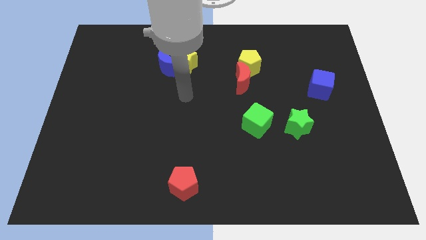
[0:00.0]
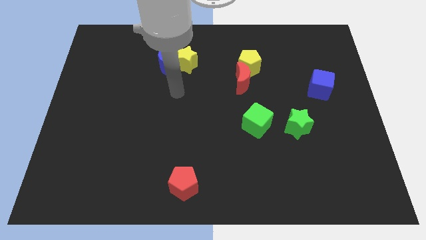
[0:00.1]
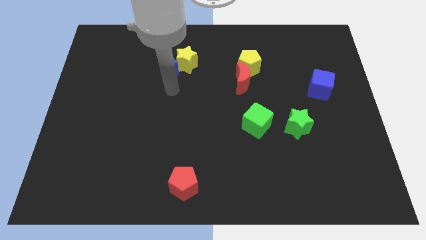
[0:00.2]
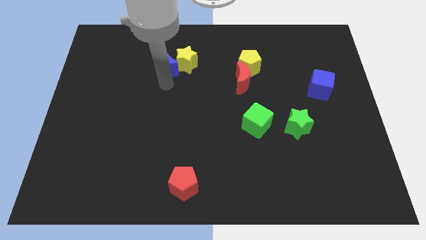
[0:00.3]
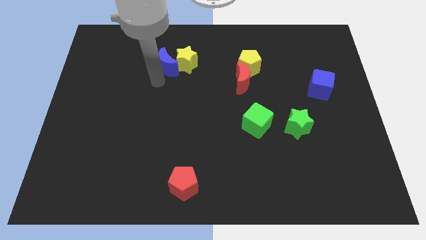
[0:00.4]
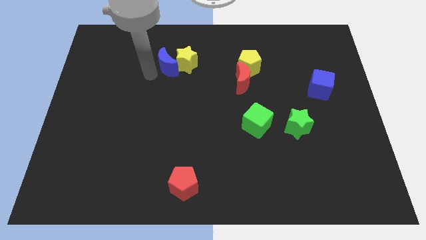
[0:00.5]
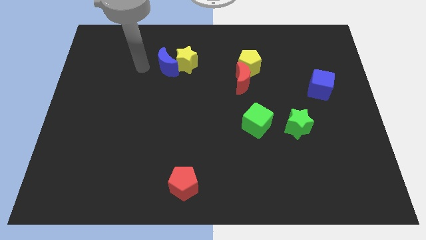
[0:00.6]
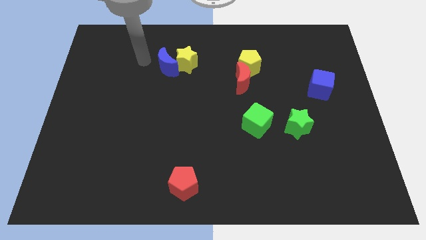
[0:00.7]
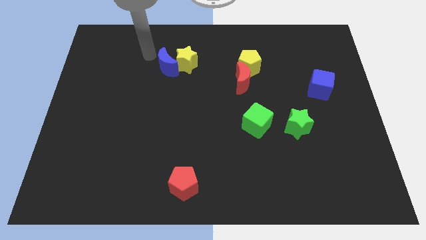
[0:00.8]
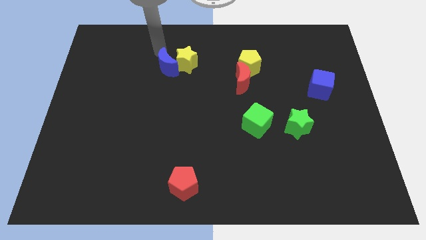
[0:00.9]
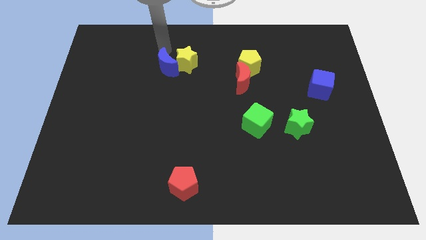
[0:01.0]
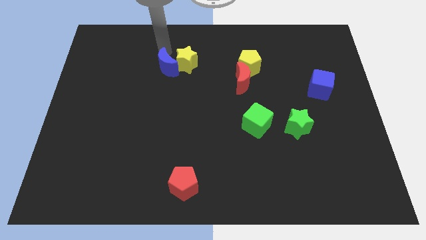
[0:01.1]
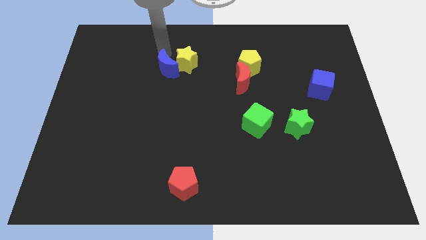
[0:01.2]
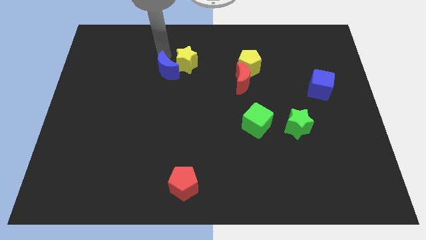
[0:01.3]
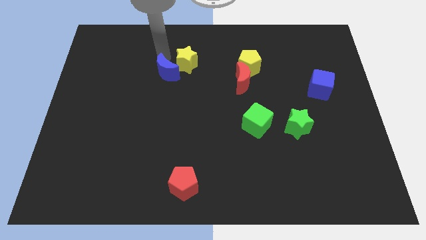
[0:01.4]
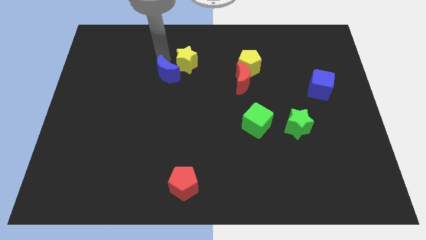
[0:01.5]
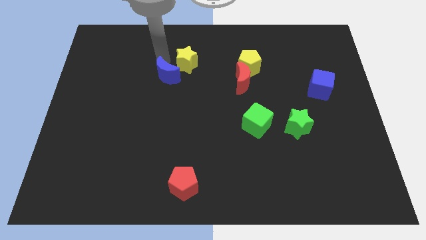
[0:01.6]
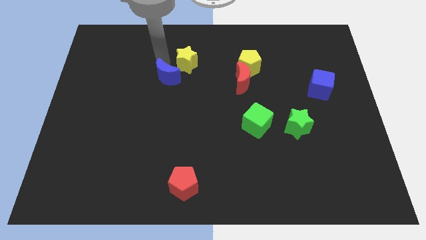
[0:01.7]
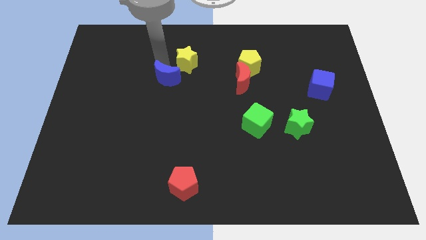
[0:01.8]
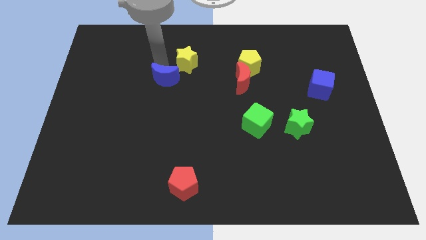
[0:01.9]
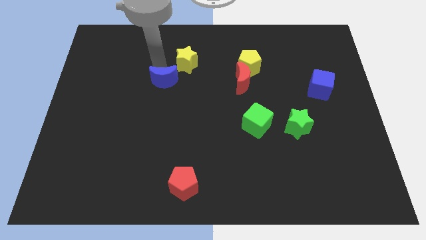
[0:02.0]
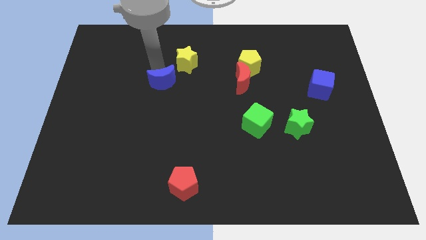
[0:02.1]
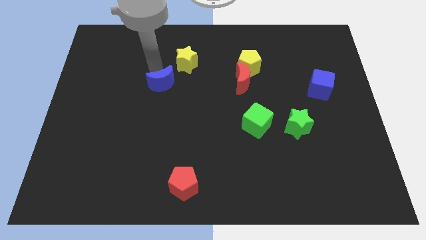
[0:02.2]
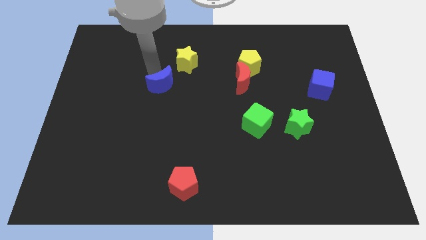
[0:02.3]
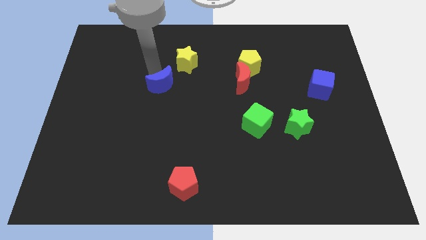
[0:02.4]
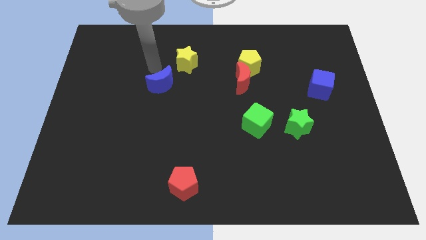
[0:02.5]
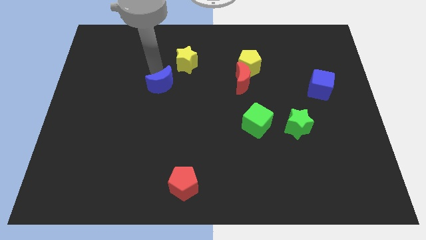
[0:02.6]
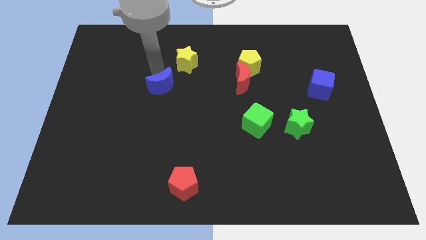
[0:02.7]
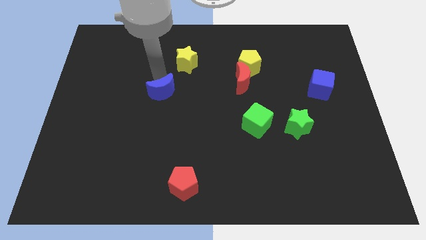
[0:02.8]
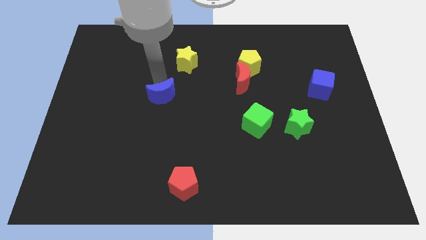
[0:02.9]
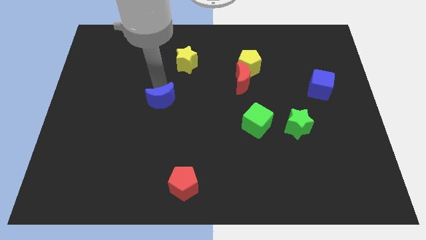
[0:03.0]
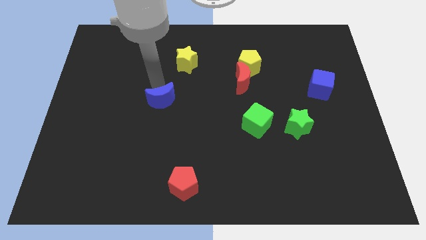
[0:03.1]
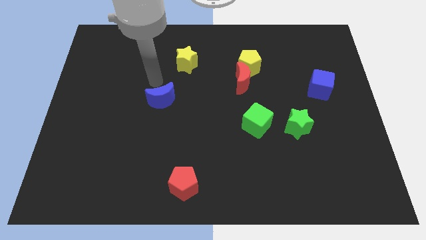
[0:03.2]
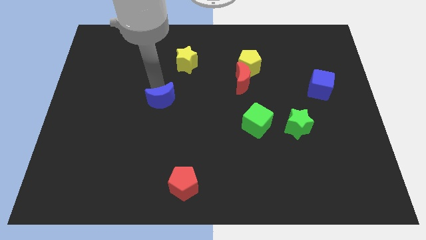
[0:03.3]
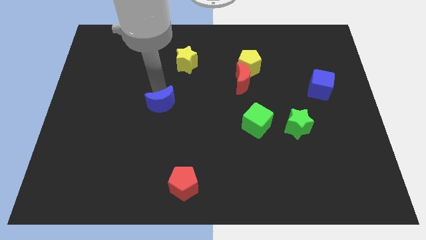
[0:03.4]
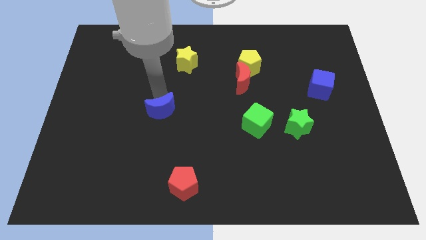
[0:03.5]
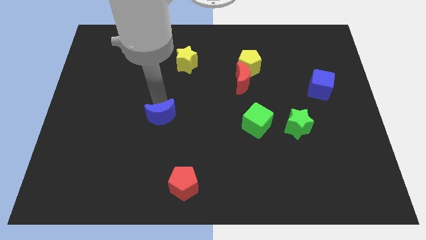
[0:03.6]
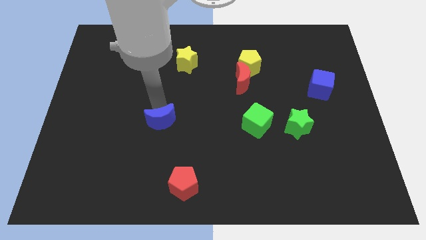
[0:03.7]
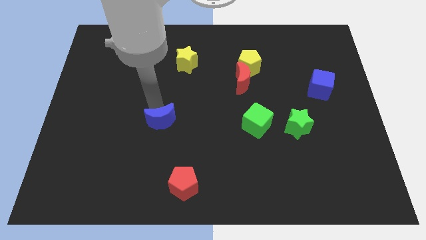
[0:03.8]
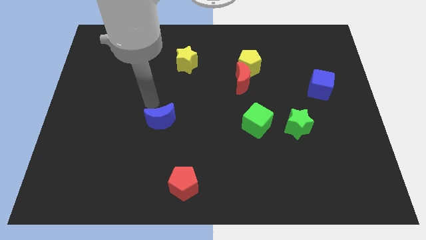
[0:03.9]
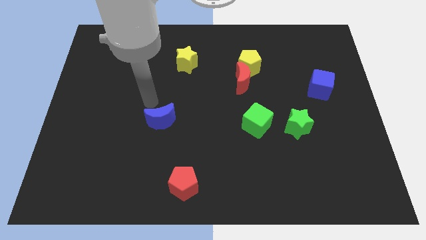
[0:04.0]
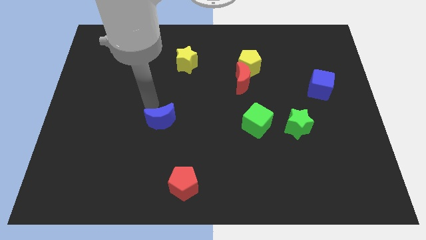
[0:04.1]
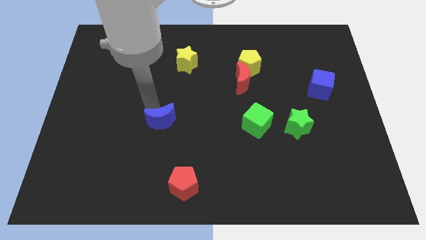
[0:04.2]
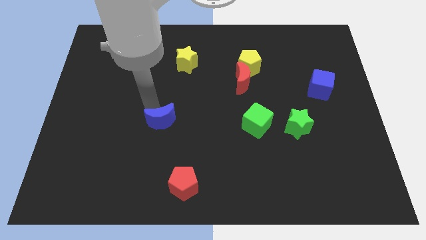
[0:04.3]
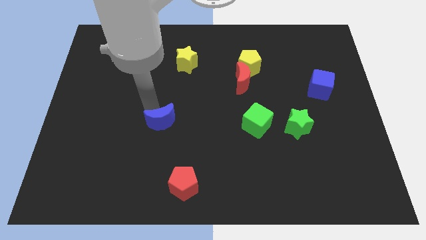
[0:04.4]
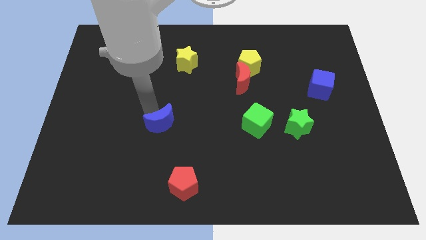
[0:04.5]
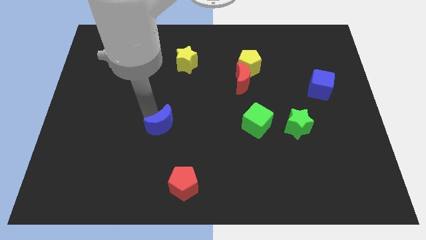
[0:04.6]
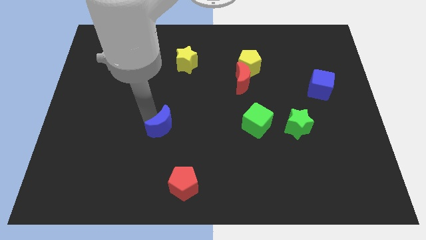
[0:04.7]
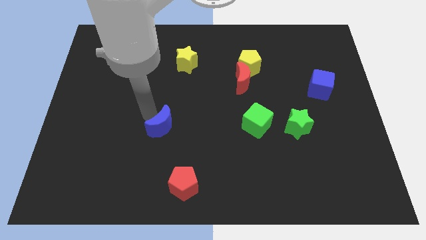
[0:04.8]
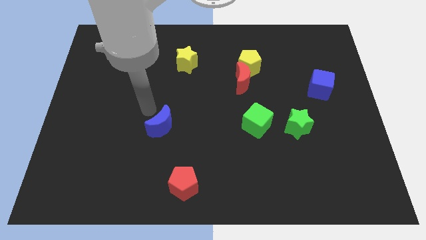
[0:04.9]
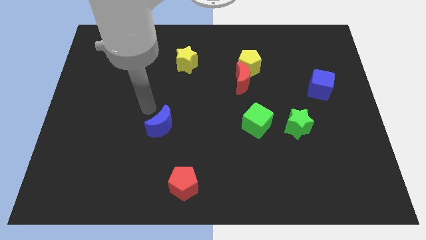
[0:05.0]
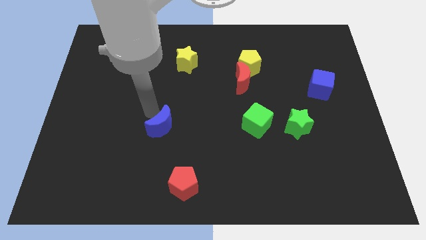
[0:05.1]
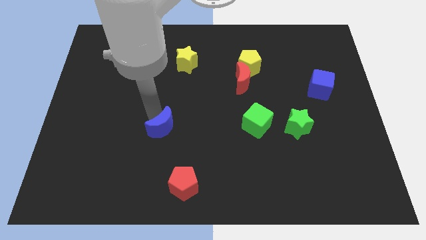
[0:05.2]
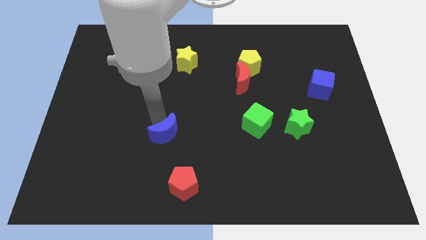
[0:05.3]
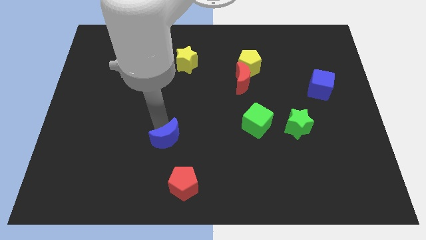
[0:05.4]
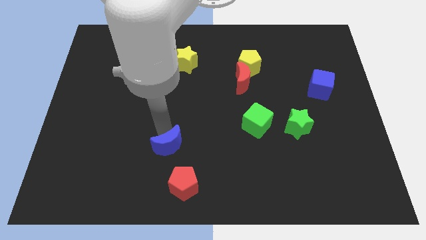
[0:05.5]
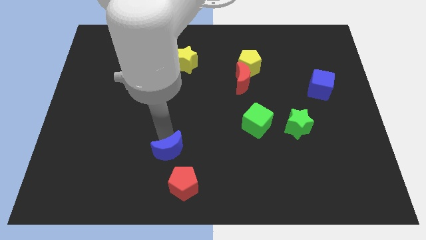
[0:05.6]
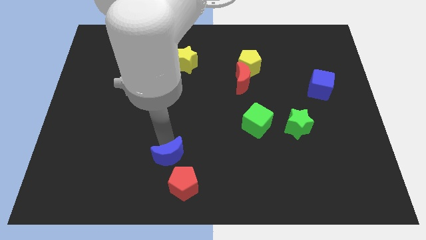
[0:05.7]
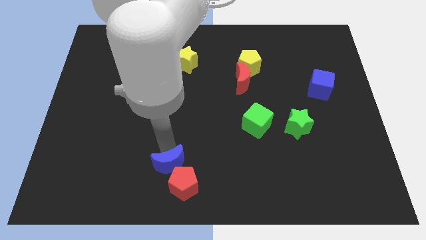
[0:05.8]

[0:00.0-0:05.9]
slide the blue moon to the red pentagon

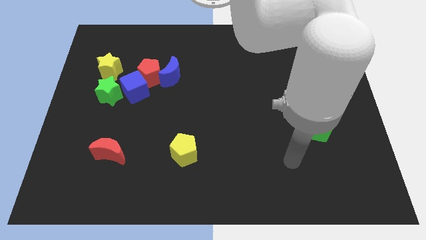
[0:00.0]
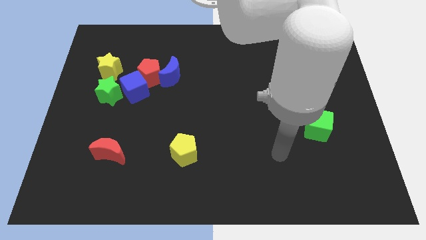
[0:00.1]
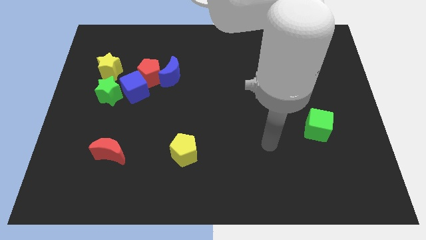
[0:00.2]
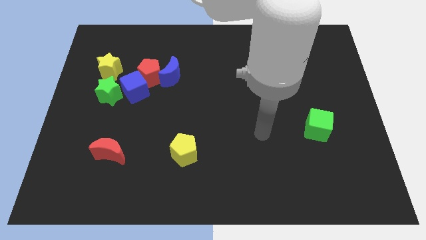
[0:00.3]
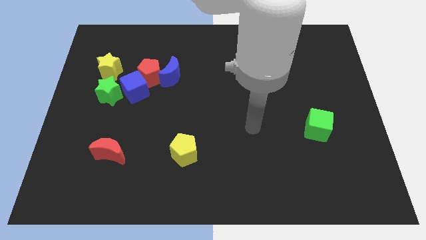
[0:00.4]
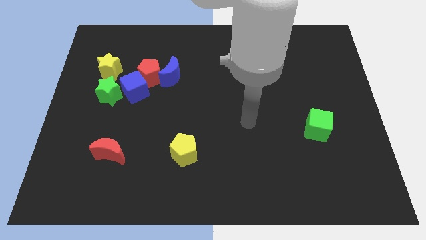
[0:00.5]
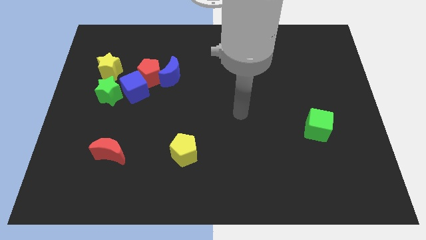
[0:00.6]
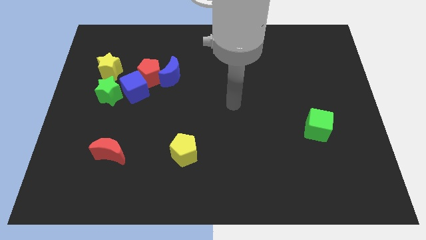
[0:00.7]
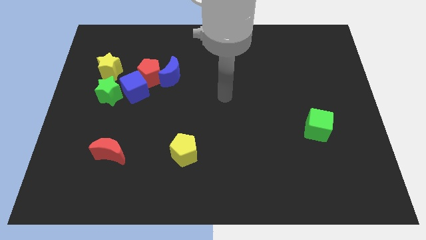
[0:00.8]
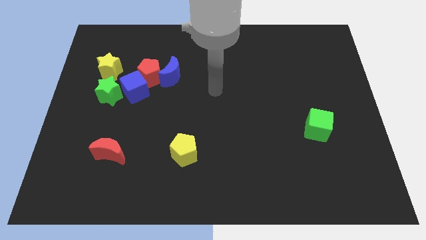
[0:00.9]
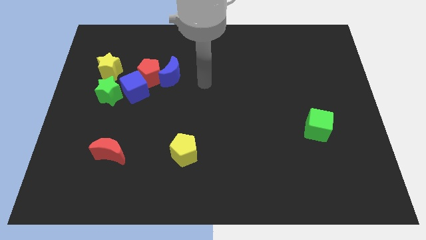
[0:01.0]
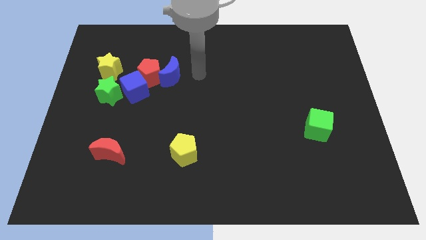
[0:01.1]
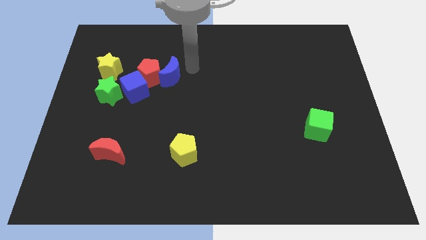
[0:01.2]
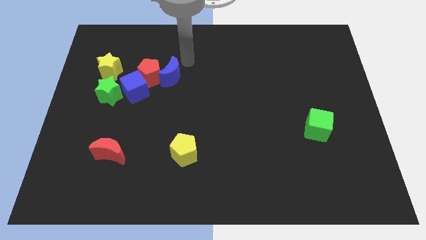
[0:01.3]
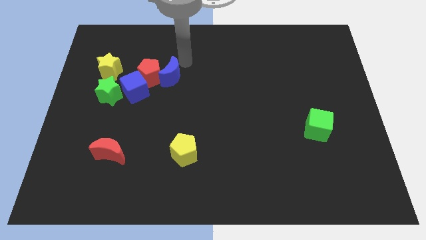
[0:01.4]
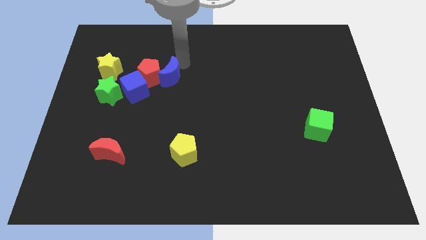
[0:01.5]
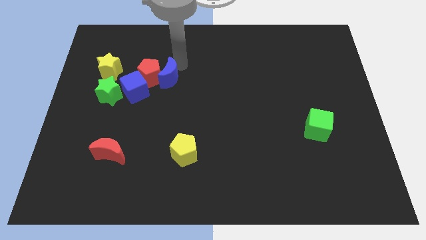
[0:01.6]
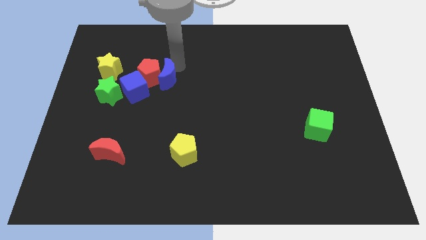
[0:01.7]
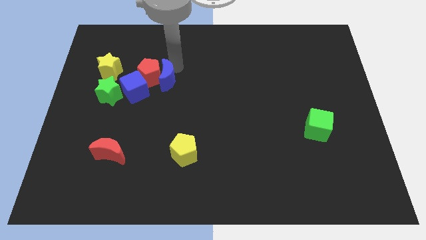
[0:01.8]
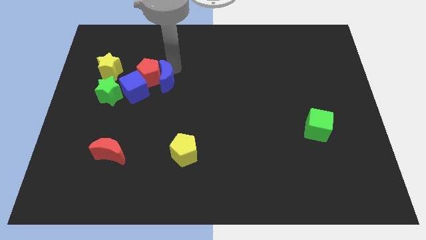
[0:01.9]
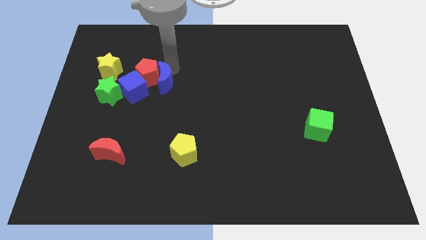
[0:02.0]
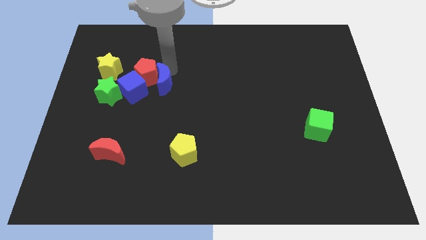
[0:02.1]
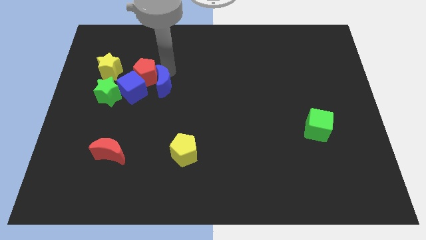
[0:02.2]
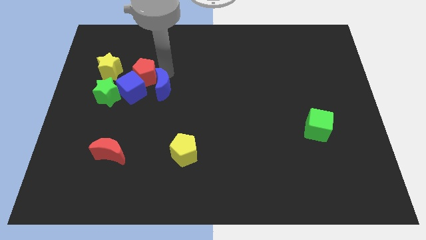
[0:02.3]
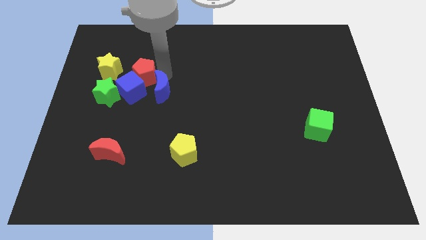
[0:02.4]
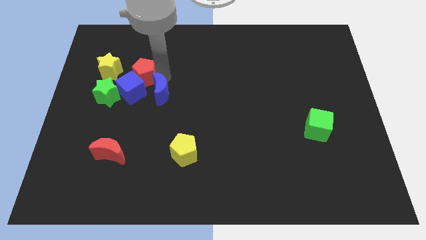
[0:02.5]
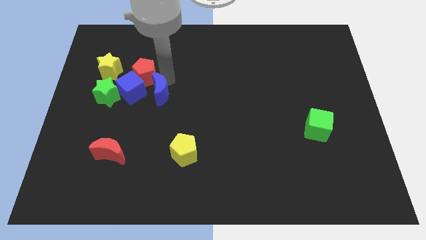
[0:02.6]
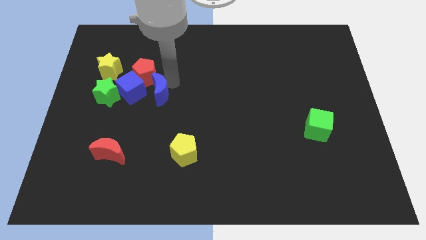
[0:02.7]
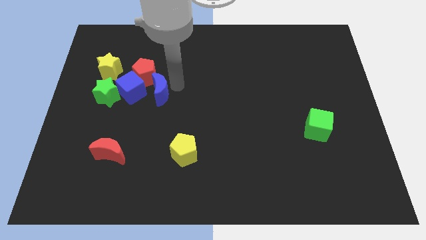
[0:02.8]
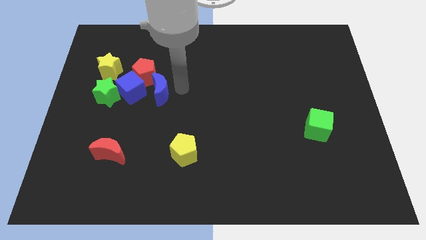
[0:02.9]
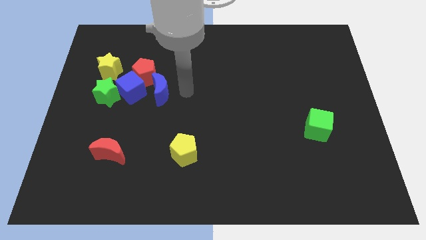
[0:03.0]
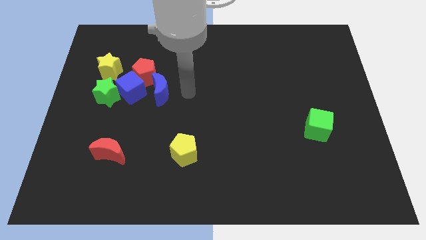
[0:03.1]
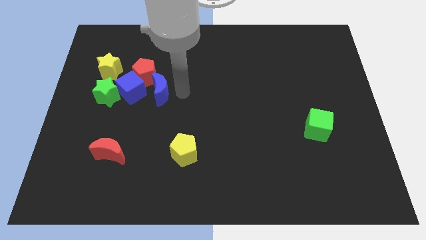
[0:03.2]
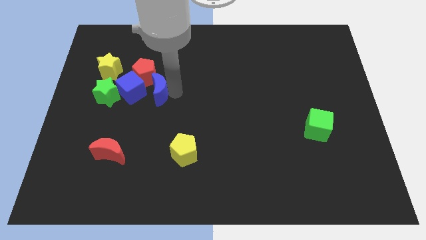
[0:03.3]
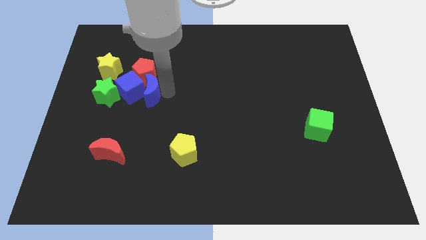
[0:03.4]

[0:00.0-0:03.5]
move the blue moon close to the blue cube
